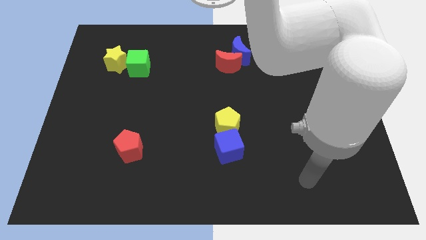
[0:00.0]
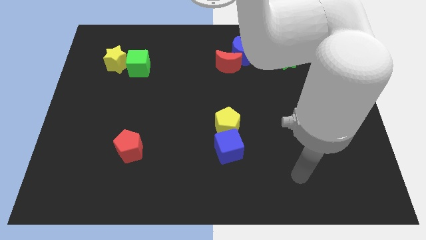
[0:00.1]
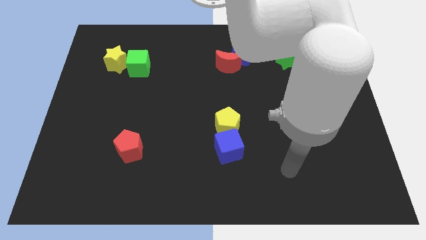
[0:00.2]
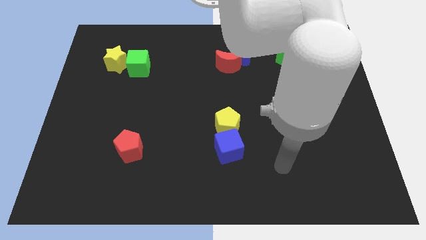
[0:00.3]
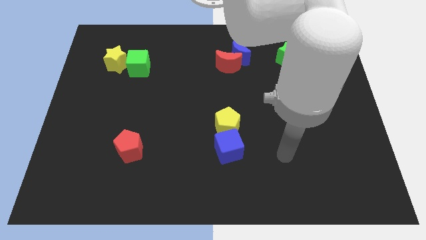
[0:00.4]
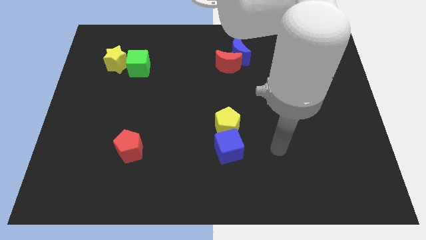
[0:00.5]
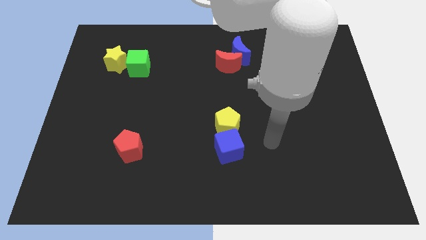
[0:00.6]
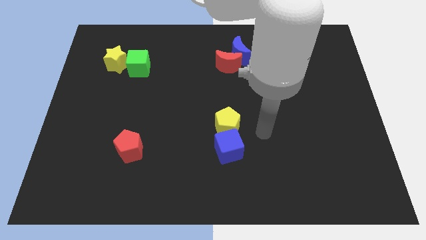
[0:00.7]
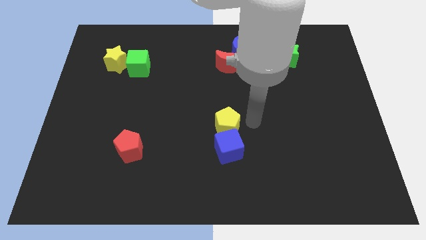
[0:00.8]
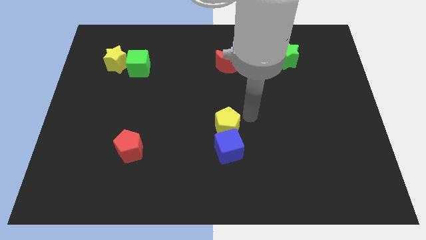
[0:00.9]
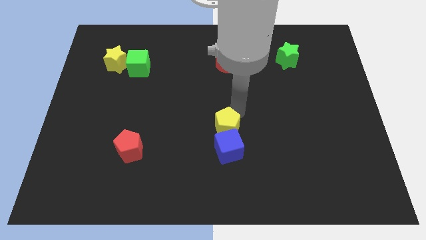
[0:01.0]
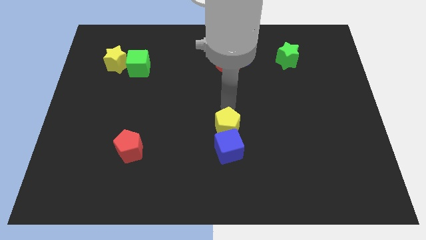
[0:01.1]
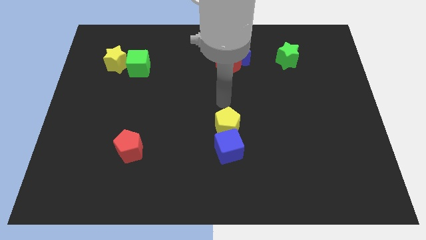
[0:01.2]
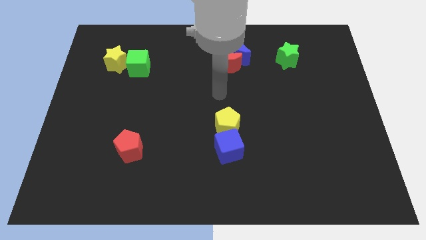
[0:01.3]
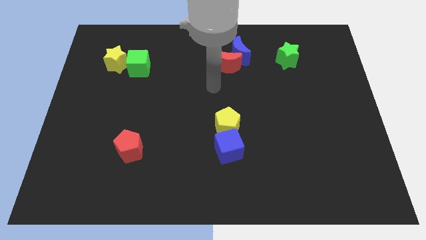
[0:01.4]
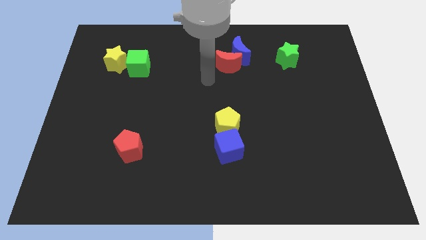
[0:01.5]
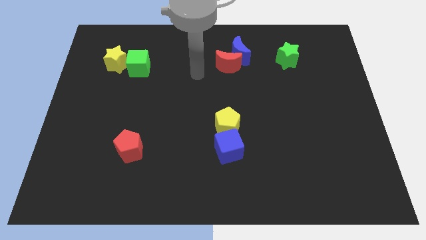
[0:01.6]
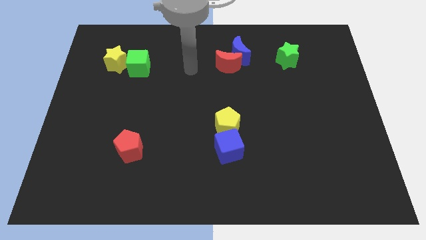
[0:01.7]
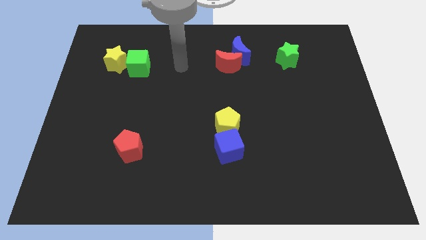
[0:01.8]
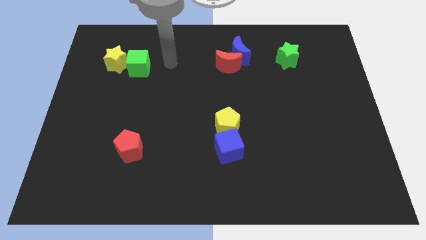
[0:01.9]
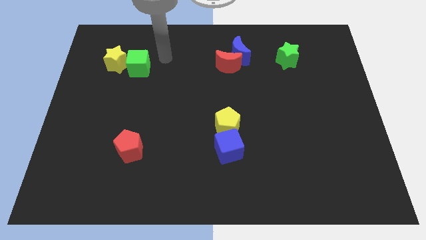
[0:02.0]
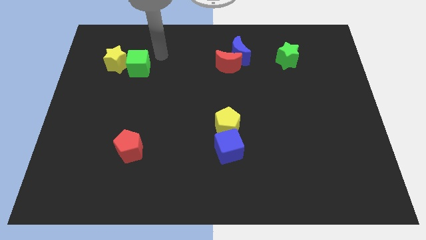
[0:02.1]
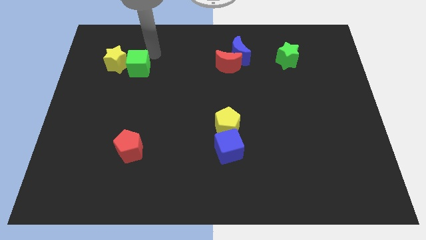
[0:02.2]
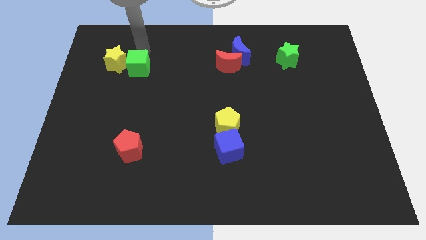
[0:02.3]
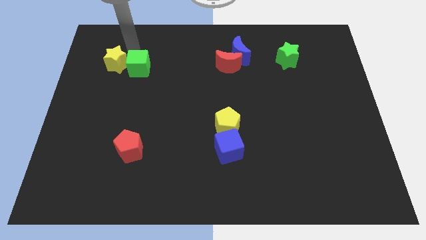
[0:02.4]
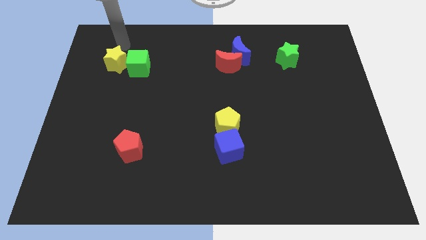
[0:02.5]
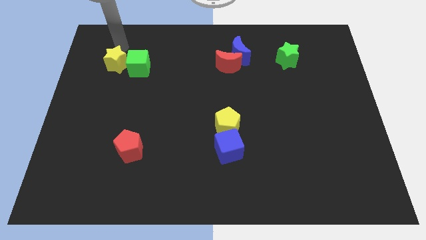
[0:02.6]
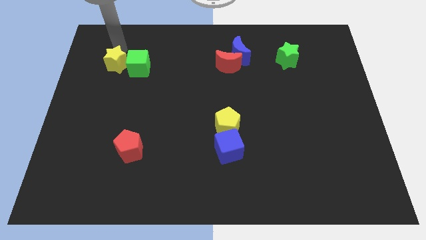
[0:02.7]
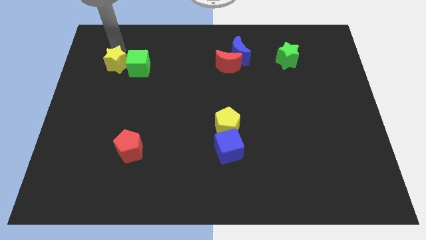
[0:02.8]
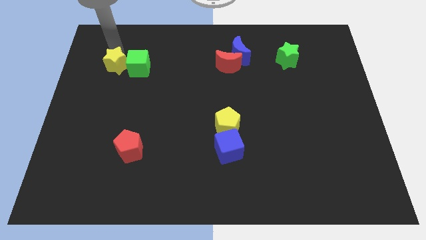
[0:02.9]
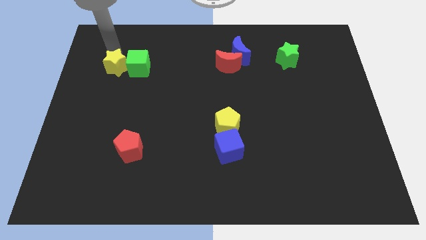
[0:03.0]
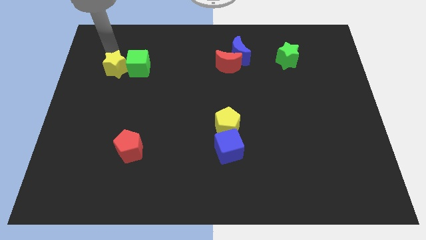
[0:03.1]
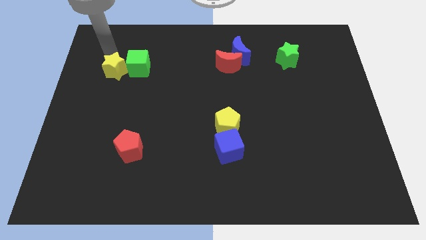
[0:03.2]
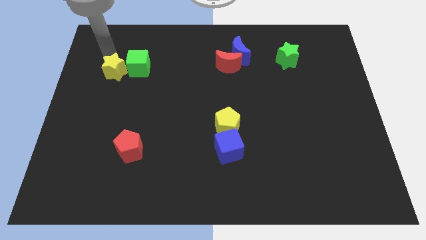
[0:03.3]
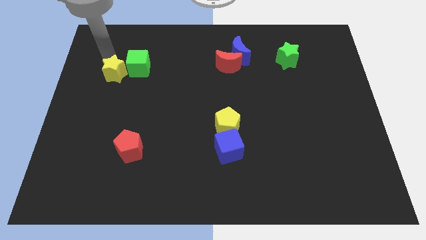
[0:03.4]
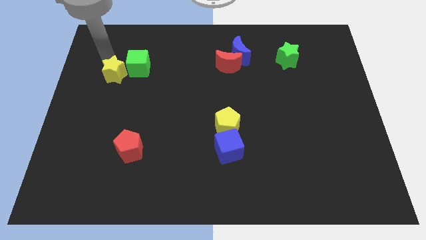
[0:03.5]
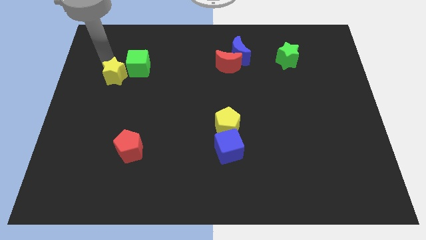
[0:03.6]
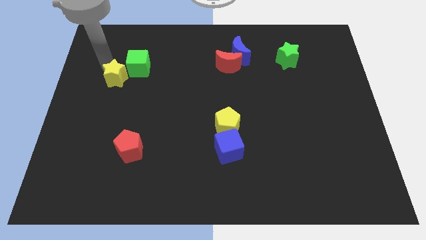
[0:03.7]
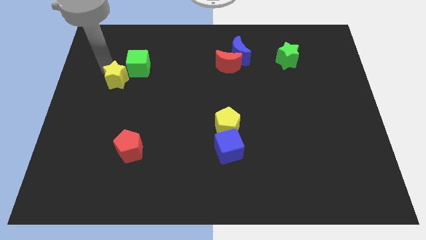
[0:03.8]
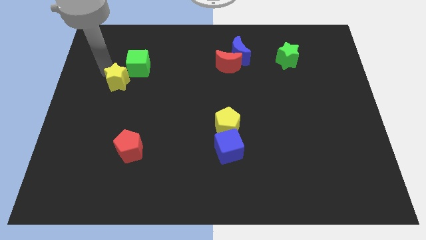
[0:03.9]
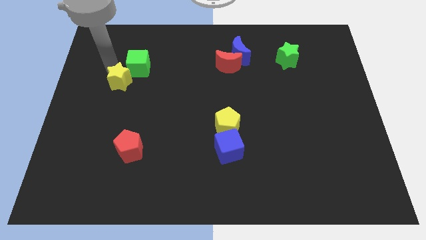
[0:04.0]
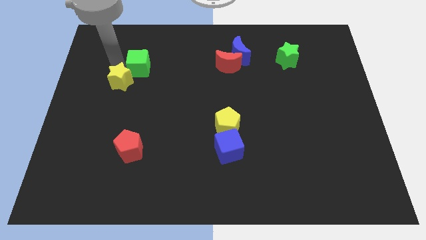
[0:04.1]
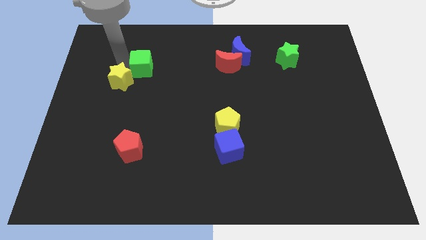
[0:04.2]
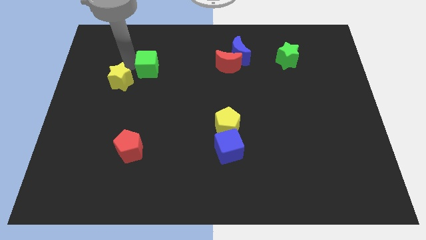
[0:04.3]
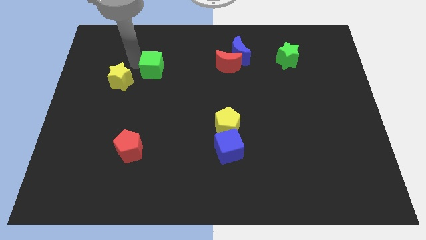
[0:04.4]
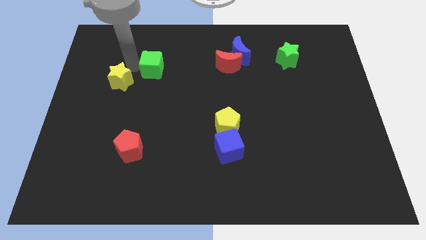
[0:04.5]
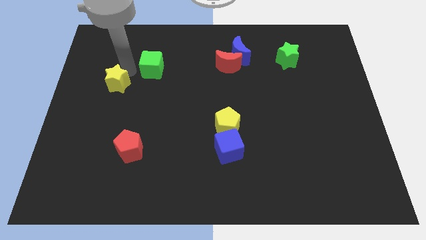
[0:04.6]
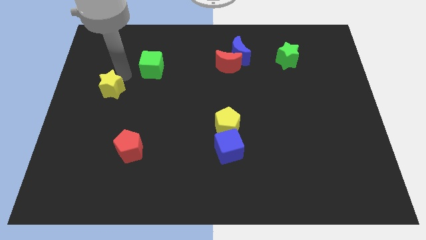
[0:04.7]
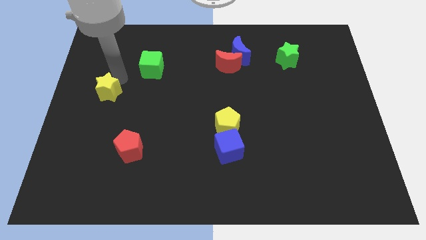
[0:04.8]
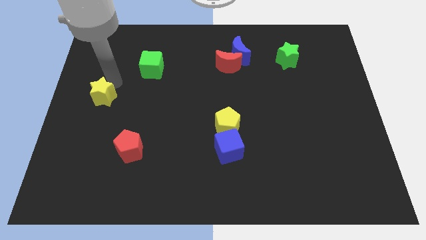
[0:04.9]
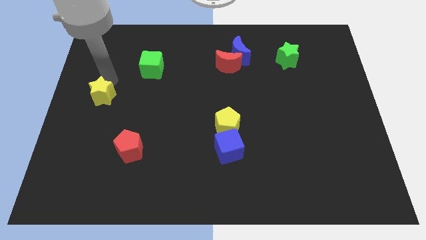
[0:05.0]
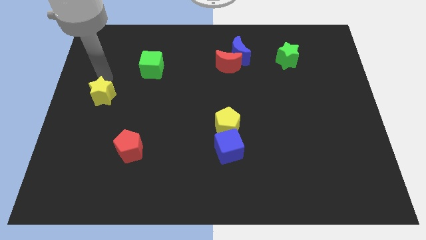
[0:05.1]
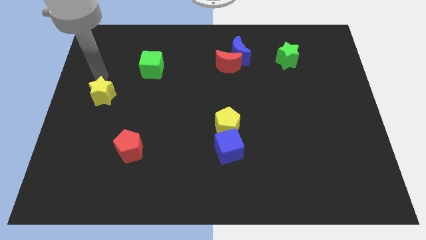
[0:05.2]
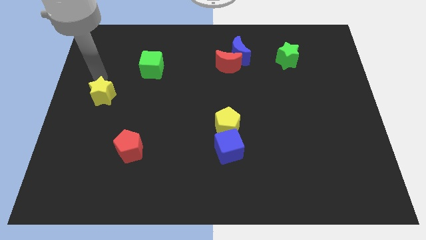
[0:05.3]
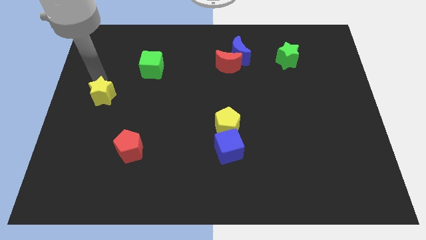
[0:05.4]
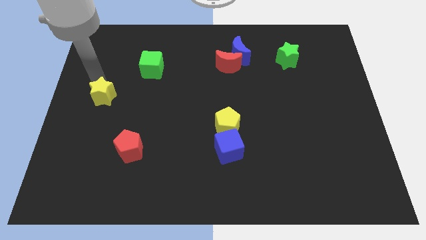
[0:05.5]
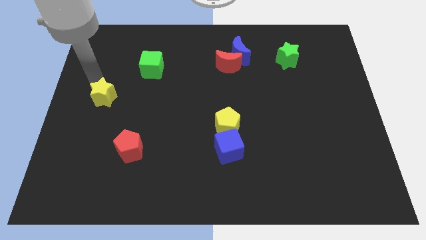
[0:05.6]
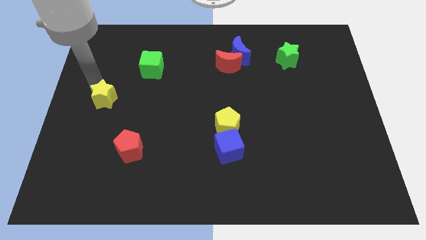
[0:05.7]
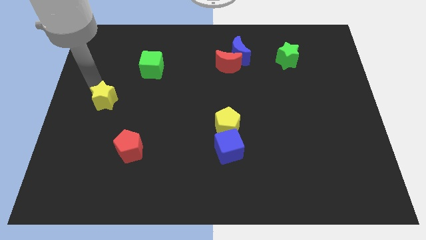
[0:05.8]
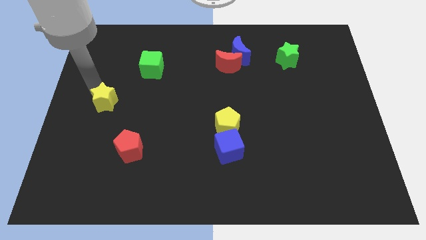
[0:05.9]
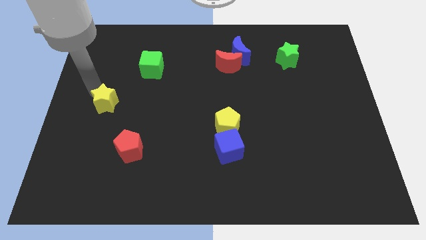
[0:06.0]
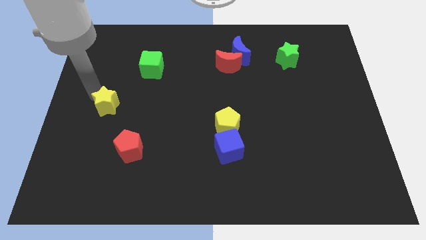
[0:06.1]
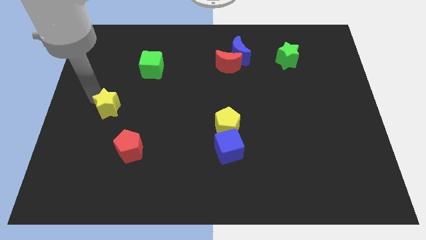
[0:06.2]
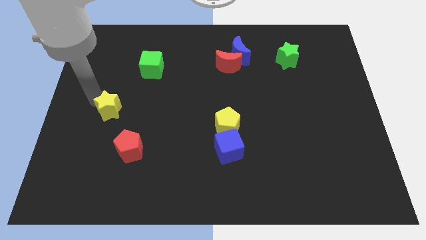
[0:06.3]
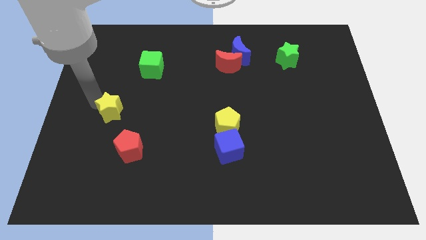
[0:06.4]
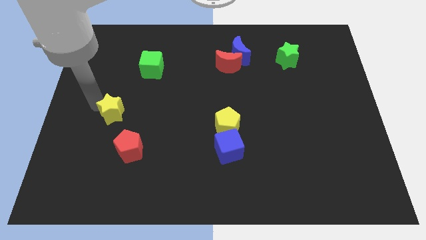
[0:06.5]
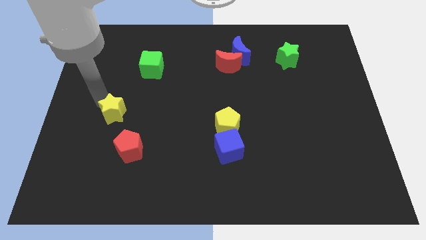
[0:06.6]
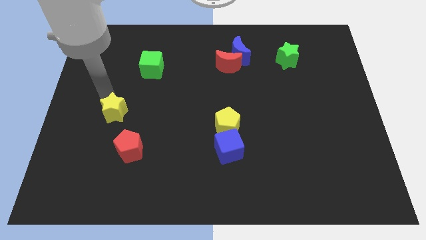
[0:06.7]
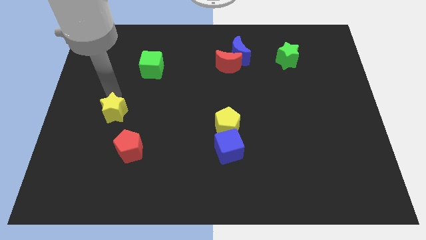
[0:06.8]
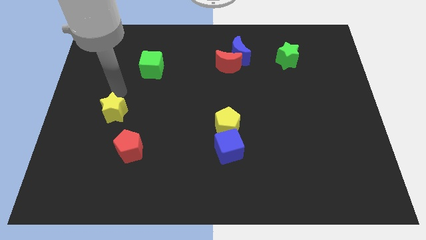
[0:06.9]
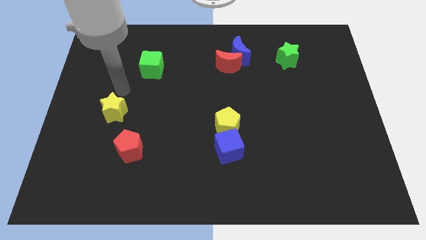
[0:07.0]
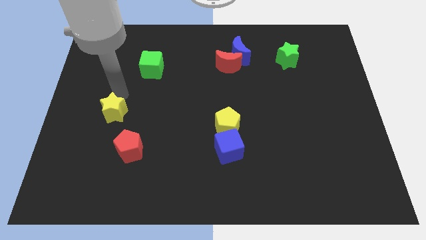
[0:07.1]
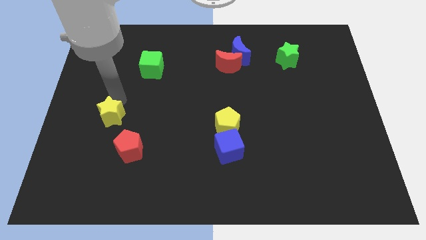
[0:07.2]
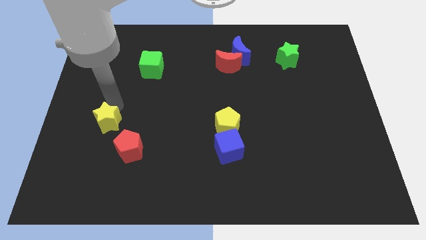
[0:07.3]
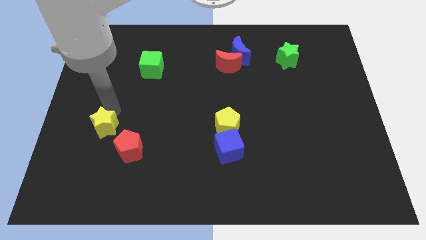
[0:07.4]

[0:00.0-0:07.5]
push the yellow star down

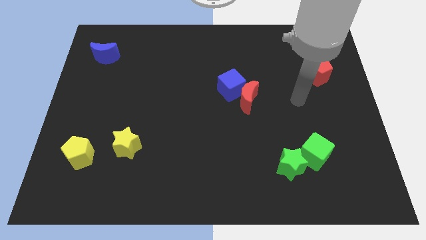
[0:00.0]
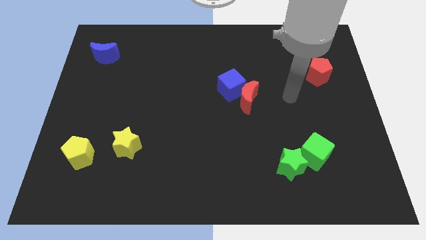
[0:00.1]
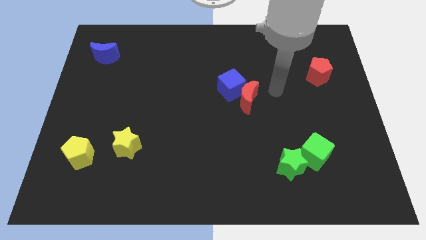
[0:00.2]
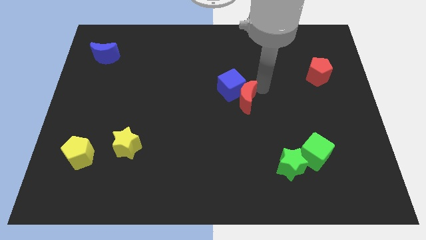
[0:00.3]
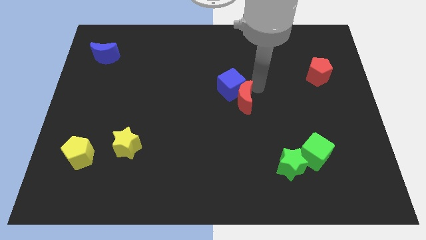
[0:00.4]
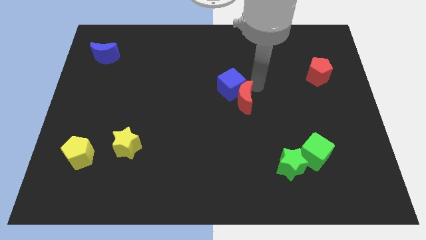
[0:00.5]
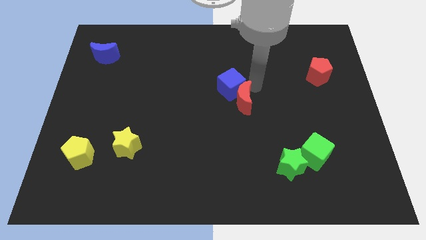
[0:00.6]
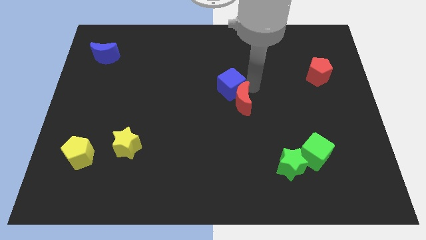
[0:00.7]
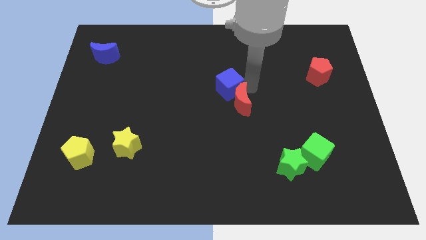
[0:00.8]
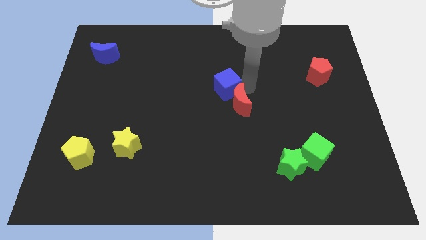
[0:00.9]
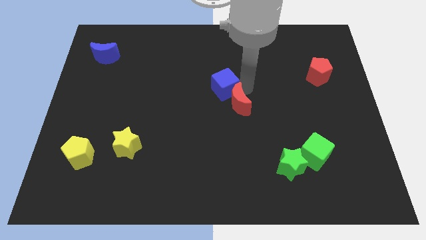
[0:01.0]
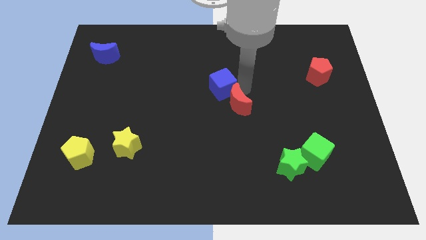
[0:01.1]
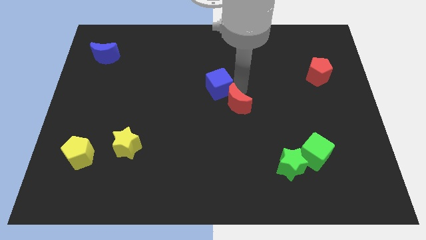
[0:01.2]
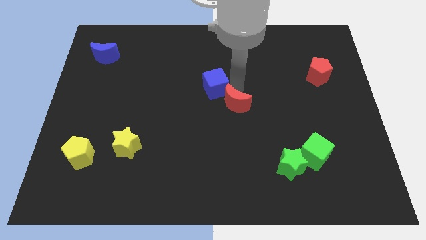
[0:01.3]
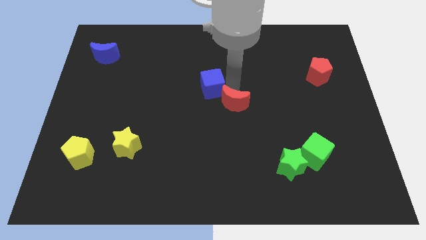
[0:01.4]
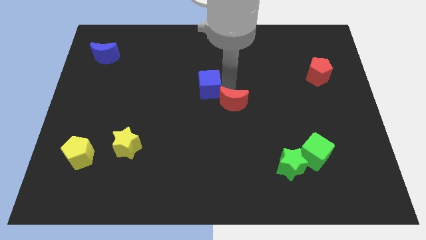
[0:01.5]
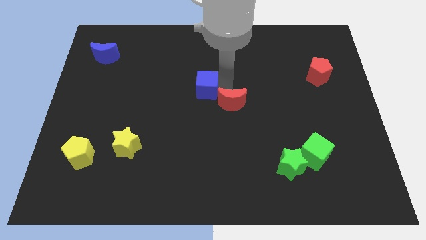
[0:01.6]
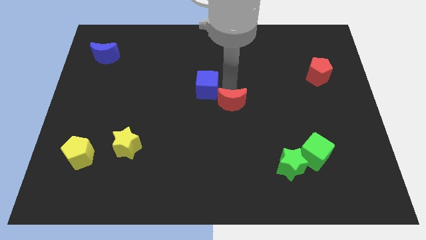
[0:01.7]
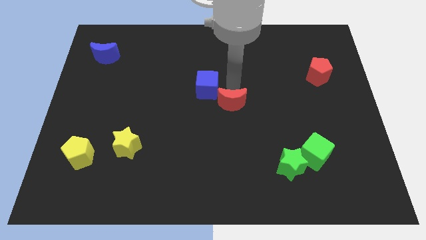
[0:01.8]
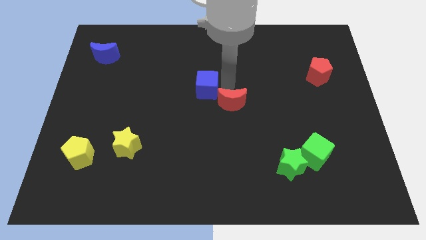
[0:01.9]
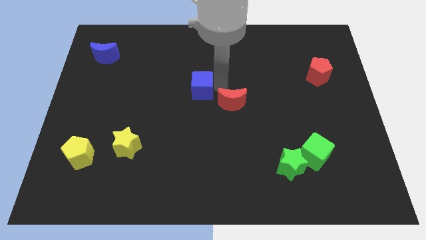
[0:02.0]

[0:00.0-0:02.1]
push the blue cube a little bit left
